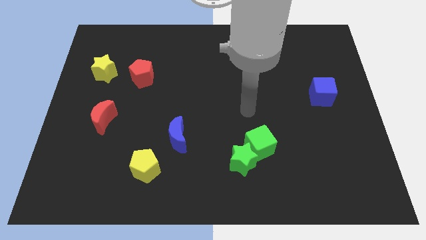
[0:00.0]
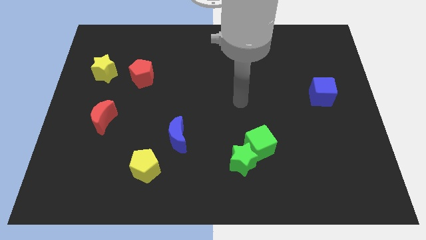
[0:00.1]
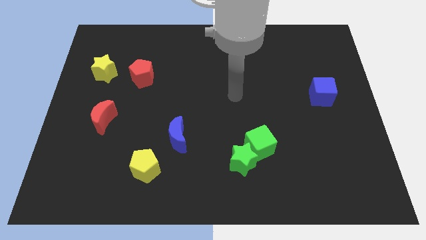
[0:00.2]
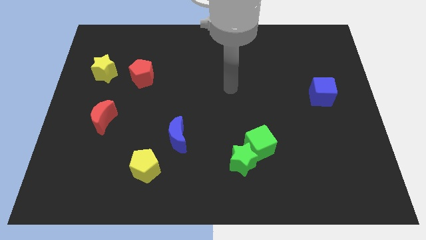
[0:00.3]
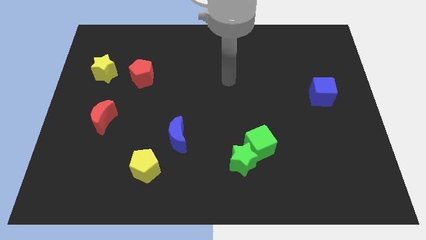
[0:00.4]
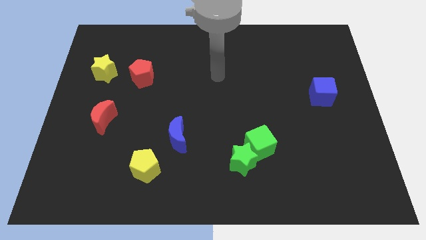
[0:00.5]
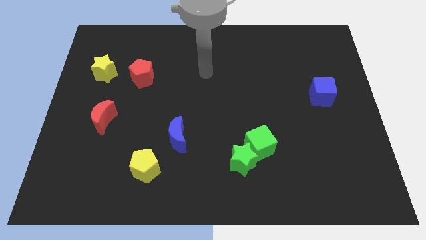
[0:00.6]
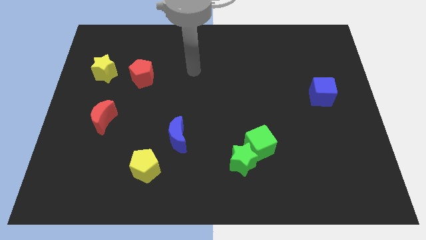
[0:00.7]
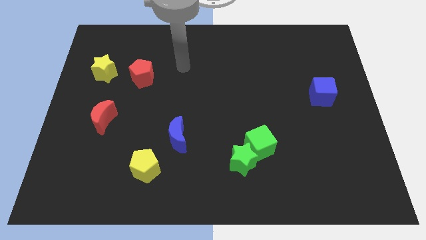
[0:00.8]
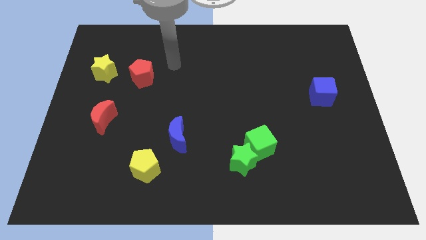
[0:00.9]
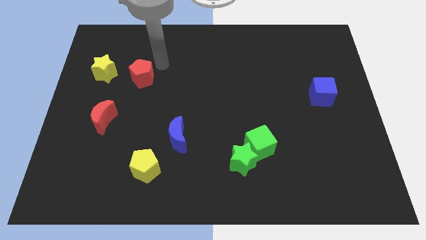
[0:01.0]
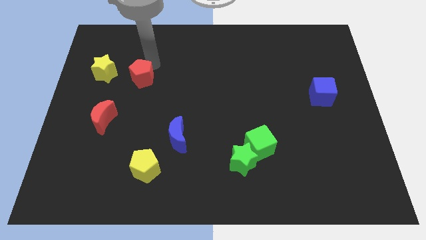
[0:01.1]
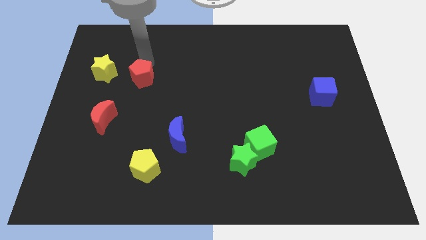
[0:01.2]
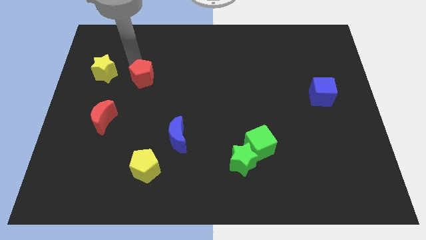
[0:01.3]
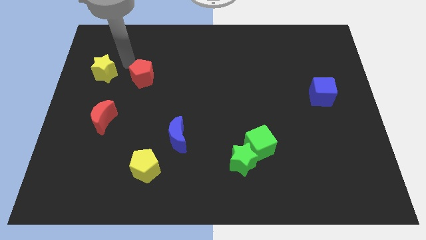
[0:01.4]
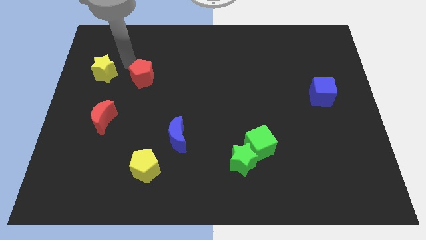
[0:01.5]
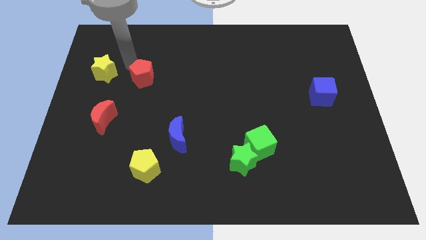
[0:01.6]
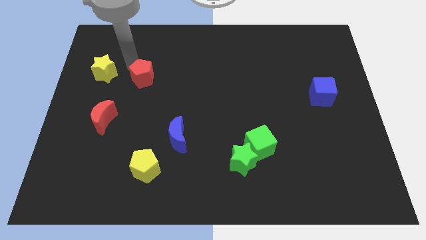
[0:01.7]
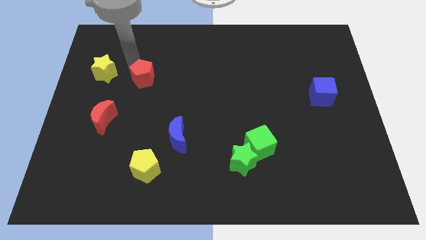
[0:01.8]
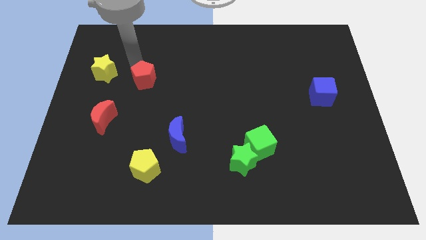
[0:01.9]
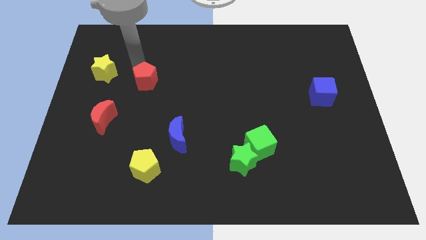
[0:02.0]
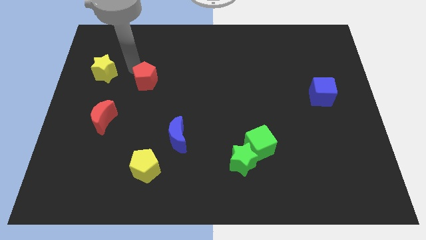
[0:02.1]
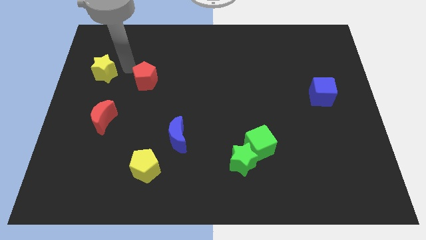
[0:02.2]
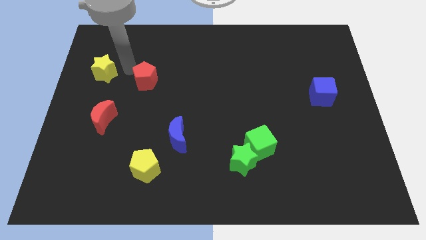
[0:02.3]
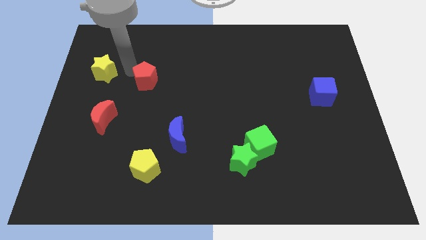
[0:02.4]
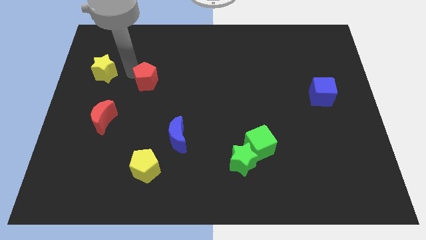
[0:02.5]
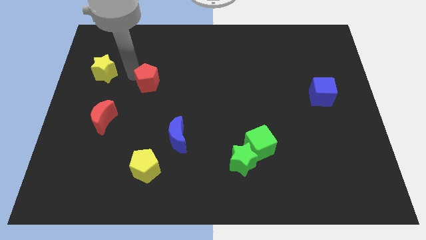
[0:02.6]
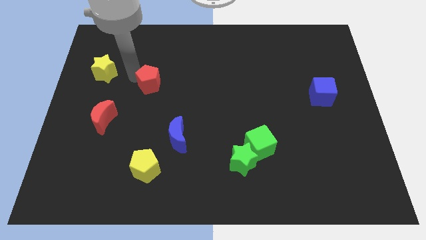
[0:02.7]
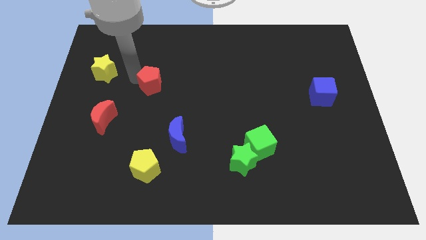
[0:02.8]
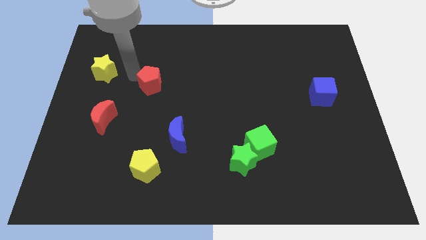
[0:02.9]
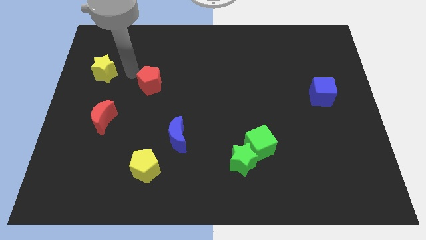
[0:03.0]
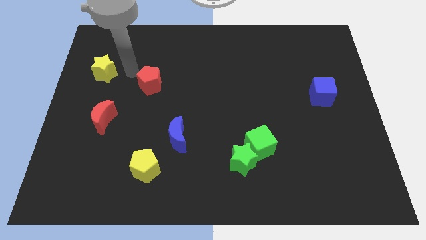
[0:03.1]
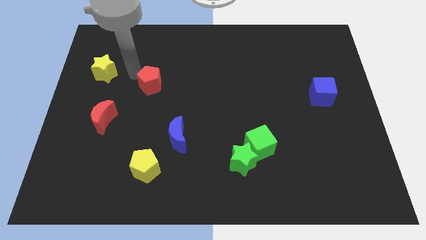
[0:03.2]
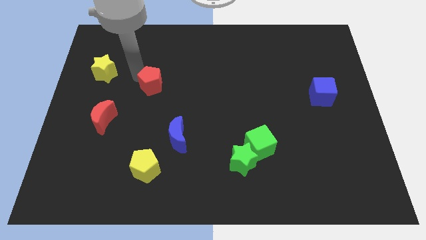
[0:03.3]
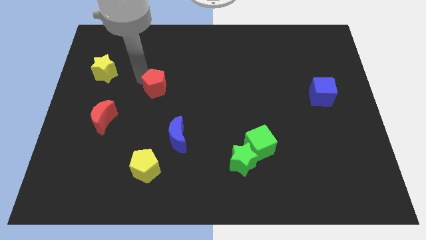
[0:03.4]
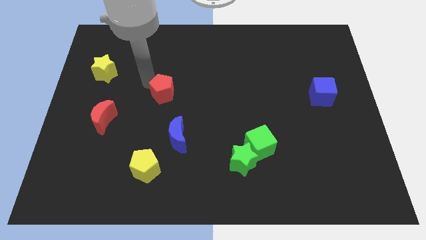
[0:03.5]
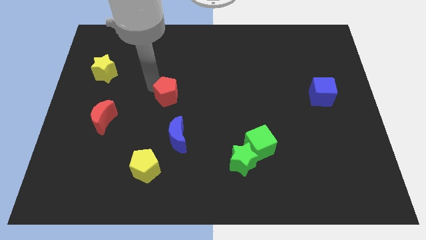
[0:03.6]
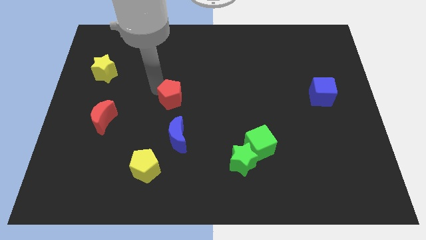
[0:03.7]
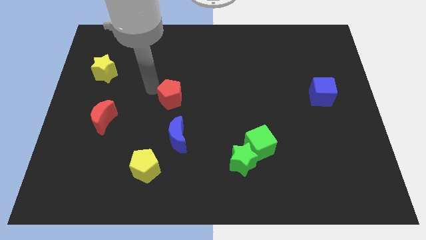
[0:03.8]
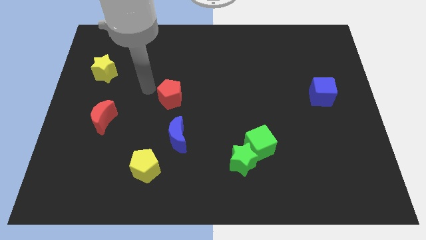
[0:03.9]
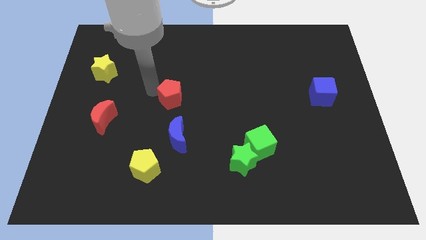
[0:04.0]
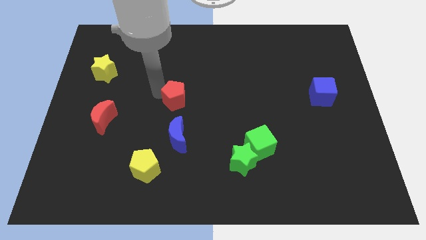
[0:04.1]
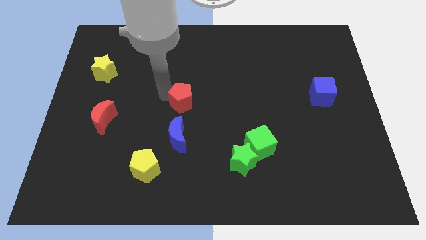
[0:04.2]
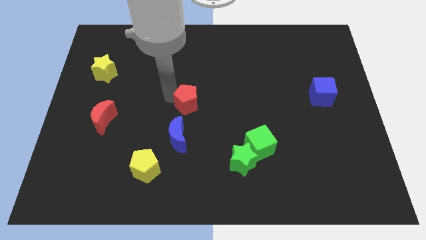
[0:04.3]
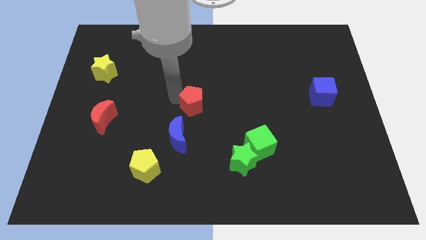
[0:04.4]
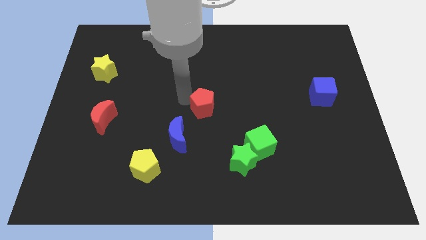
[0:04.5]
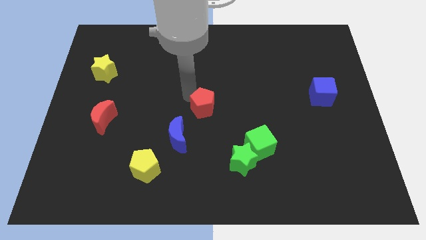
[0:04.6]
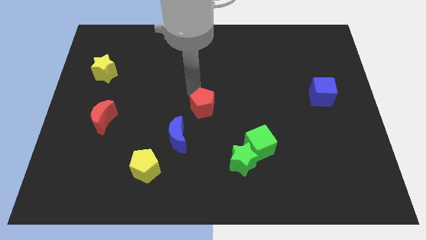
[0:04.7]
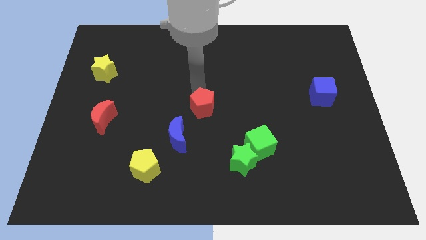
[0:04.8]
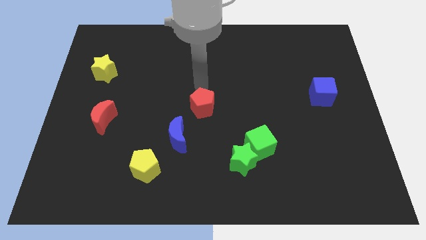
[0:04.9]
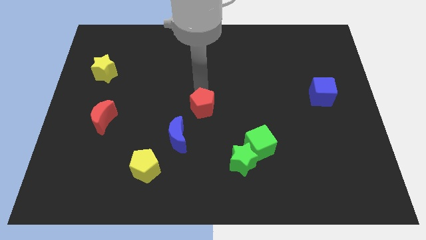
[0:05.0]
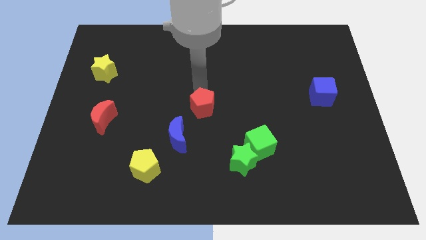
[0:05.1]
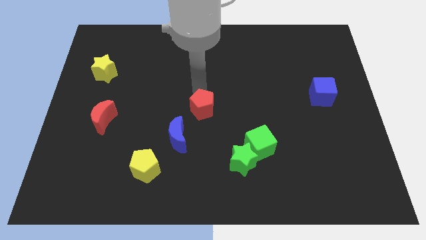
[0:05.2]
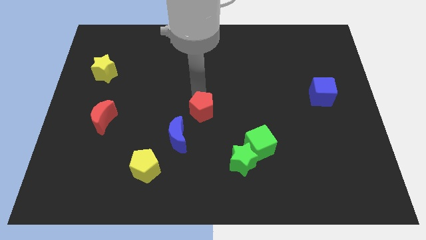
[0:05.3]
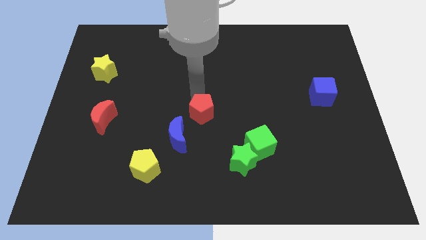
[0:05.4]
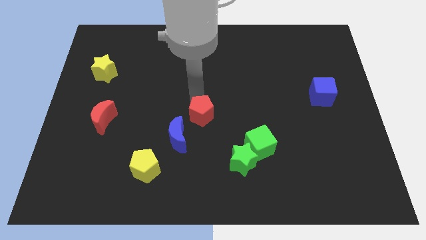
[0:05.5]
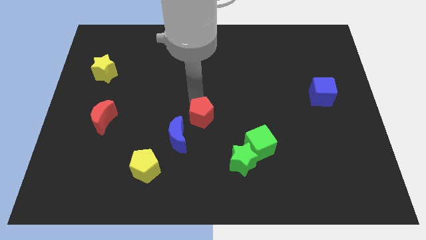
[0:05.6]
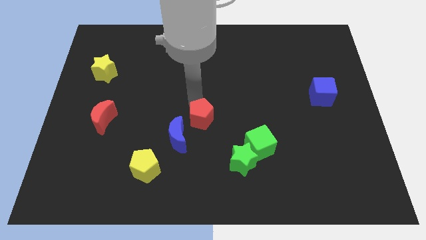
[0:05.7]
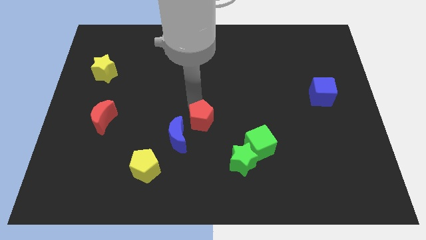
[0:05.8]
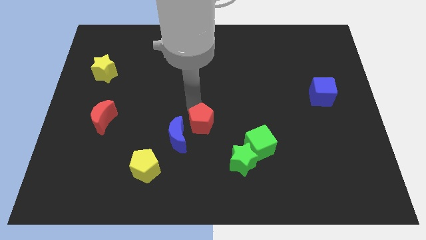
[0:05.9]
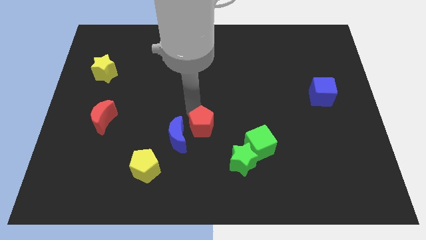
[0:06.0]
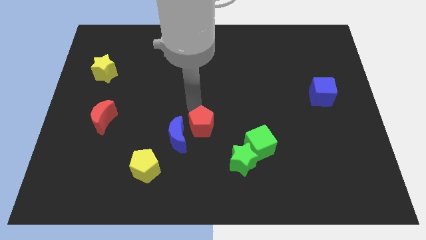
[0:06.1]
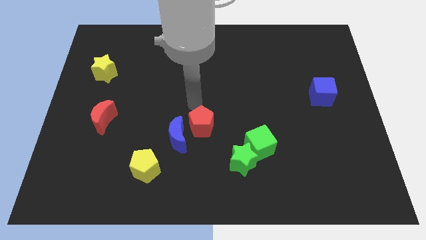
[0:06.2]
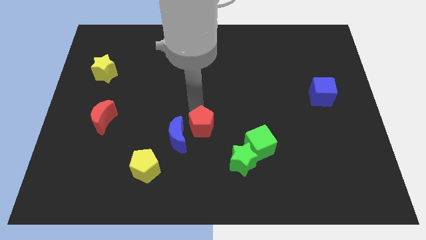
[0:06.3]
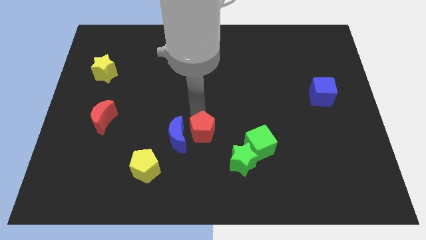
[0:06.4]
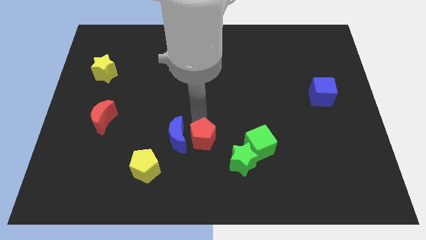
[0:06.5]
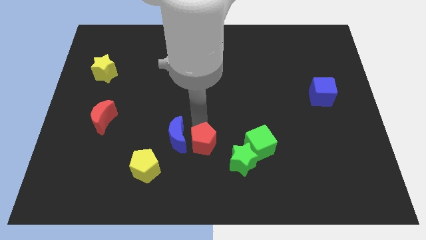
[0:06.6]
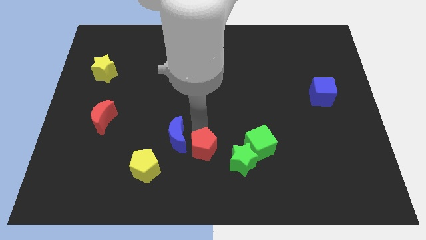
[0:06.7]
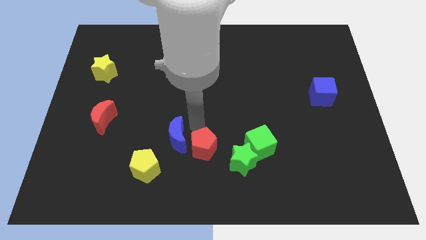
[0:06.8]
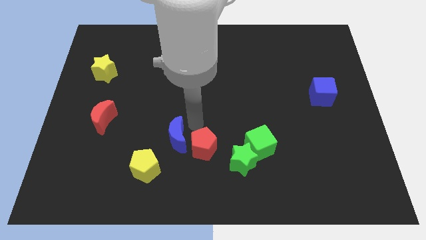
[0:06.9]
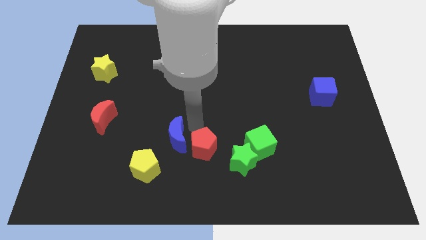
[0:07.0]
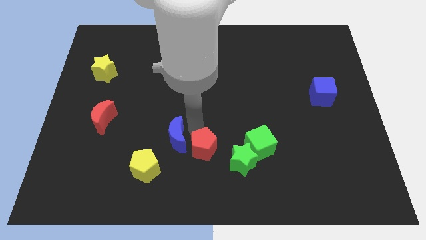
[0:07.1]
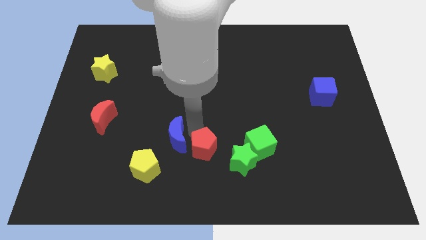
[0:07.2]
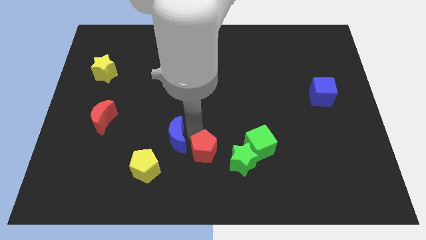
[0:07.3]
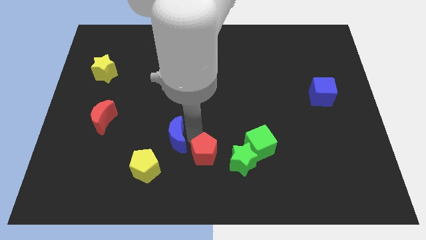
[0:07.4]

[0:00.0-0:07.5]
put the red pentagon to the bottom

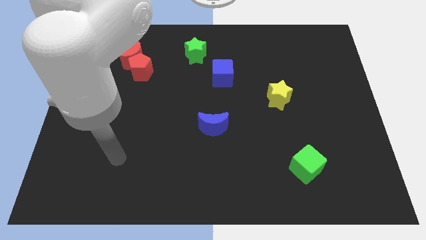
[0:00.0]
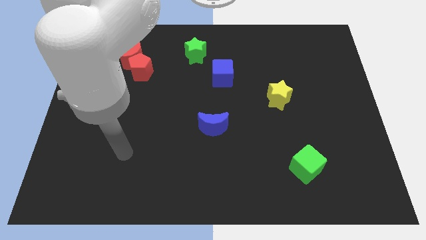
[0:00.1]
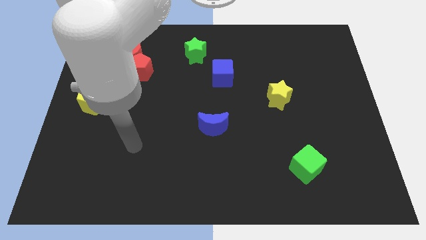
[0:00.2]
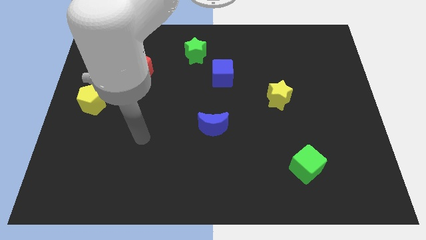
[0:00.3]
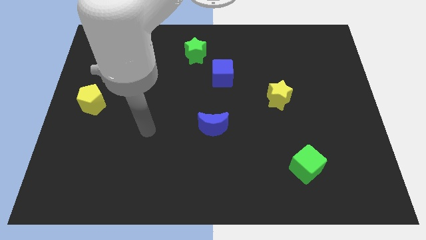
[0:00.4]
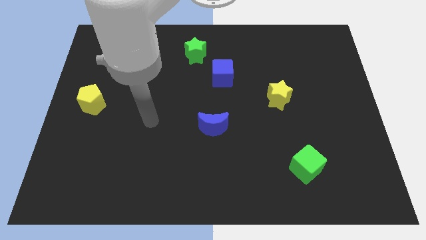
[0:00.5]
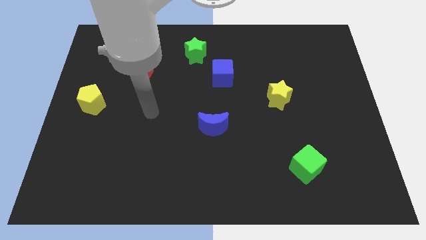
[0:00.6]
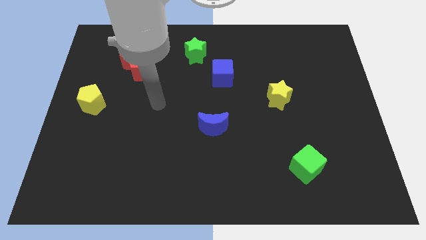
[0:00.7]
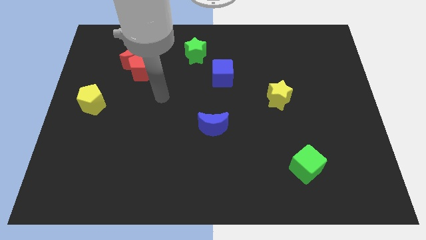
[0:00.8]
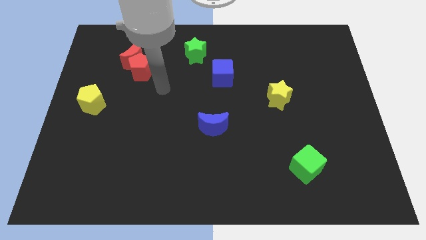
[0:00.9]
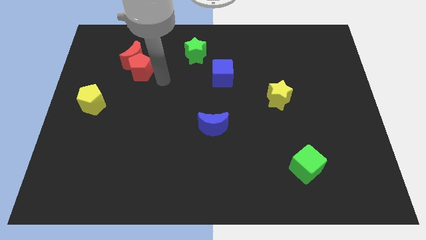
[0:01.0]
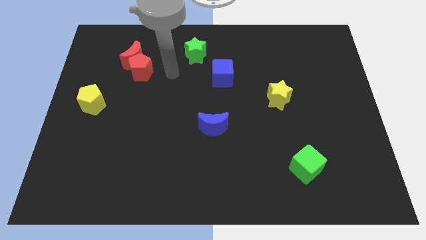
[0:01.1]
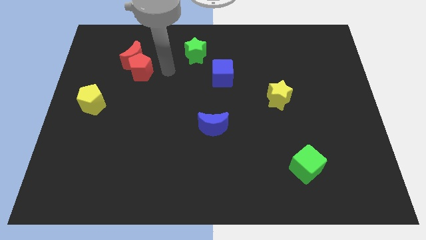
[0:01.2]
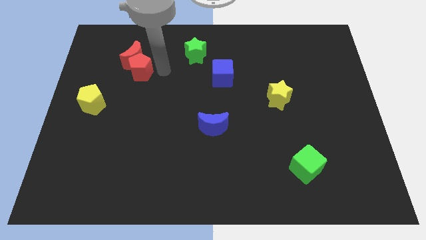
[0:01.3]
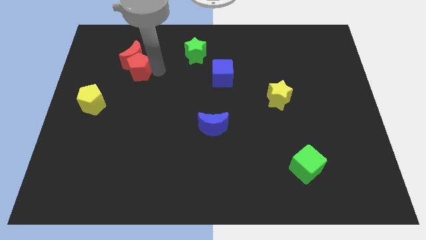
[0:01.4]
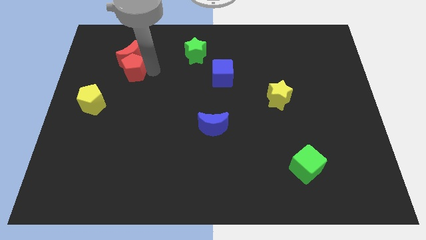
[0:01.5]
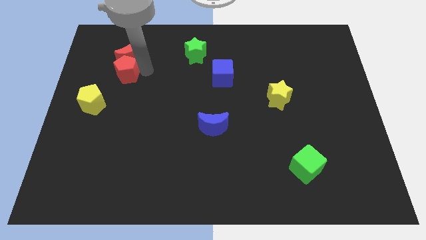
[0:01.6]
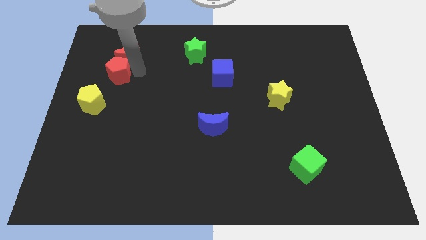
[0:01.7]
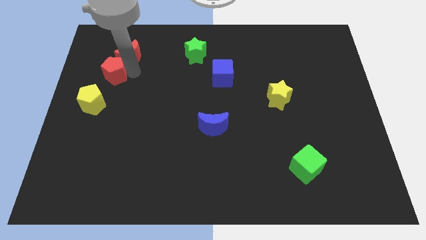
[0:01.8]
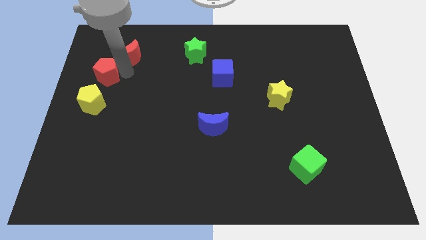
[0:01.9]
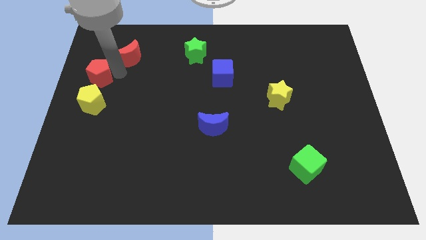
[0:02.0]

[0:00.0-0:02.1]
slide the red pentagon to the left side
